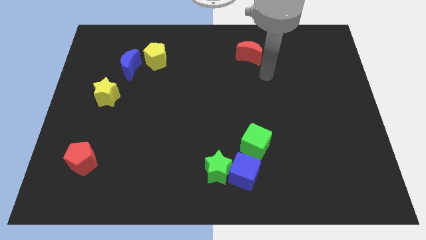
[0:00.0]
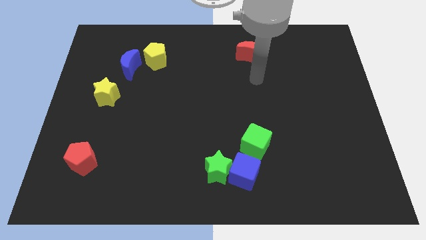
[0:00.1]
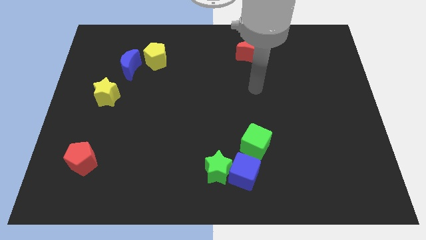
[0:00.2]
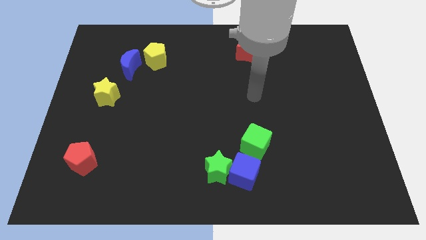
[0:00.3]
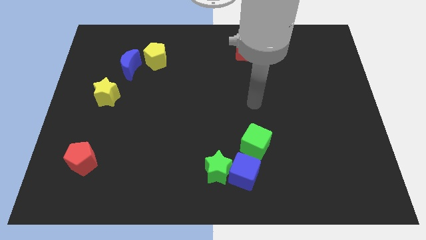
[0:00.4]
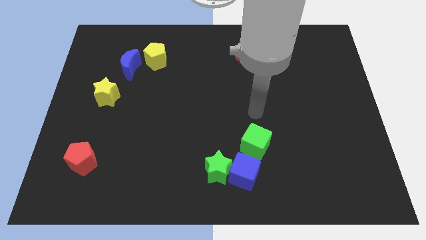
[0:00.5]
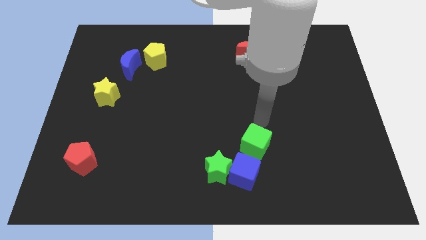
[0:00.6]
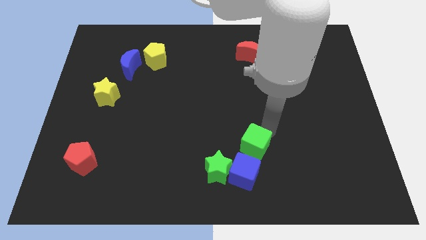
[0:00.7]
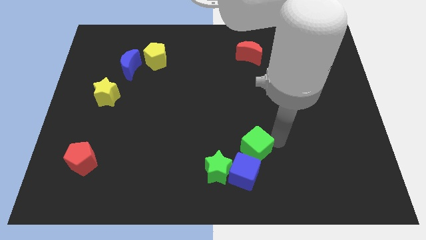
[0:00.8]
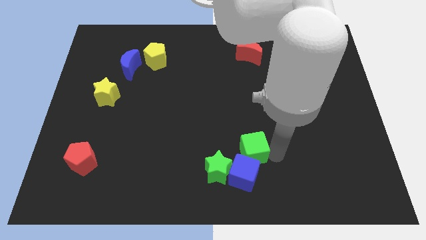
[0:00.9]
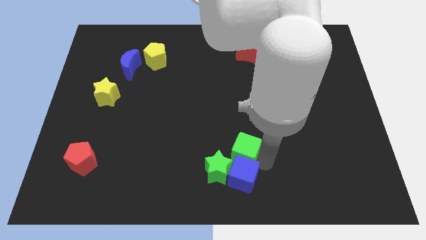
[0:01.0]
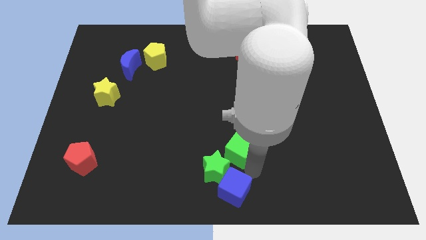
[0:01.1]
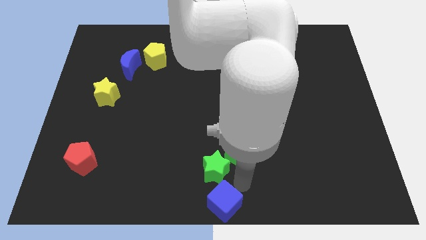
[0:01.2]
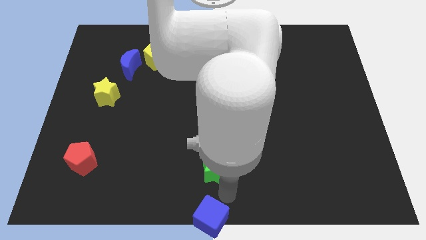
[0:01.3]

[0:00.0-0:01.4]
move the green star away from the blue cube

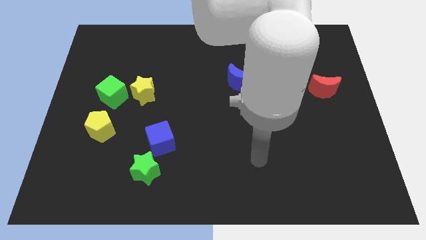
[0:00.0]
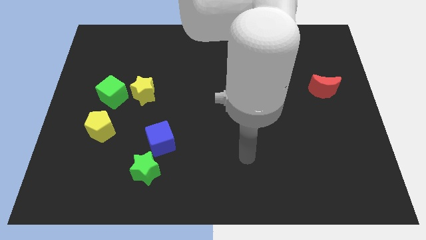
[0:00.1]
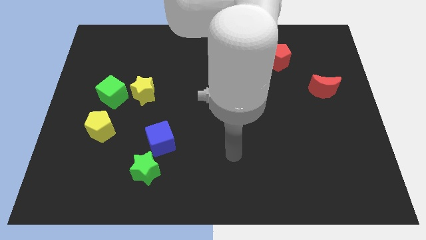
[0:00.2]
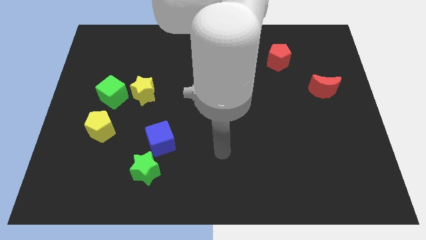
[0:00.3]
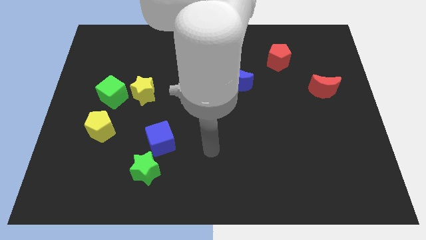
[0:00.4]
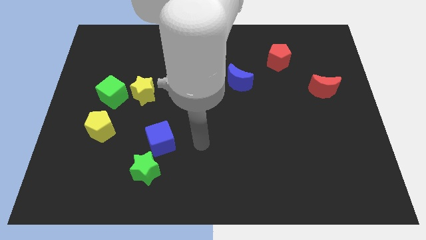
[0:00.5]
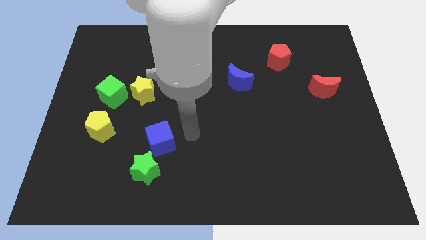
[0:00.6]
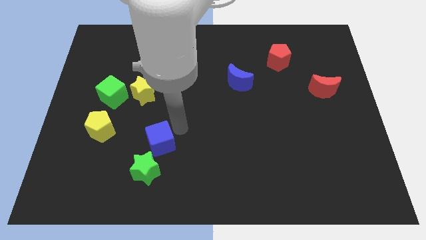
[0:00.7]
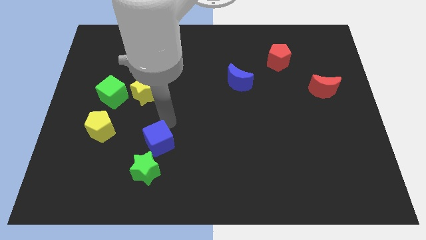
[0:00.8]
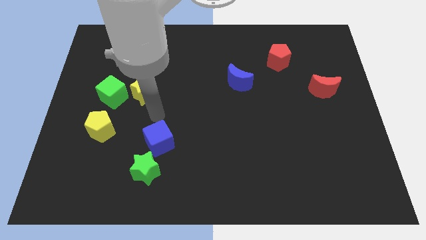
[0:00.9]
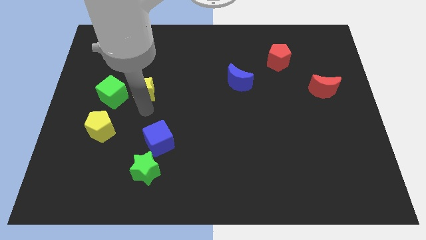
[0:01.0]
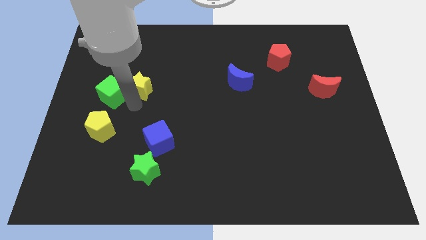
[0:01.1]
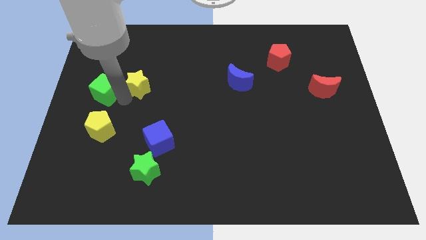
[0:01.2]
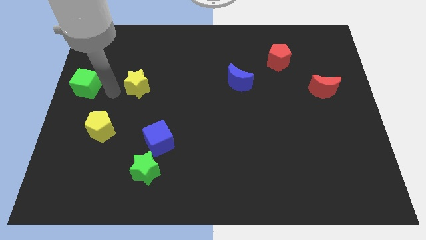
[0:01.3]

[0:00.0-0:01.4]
move the yellow star away from the green cube

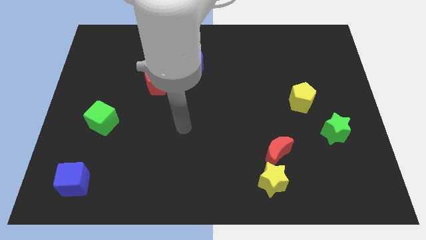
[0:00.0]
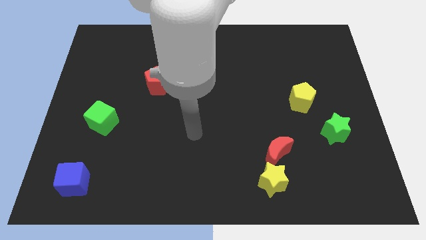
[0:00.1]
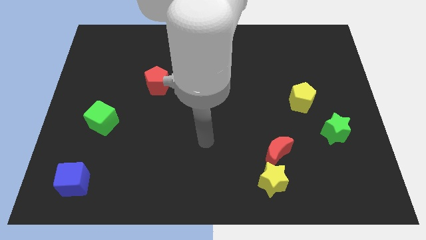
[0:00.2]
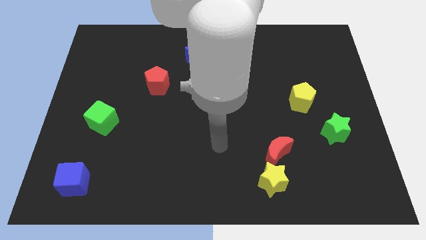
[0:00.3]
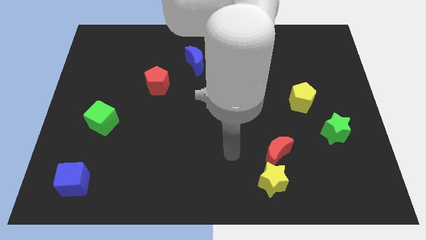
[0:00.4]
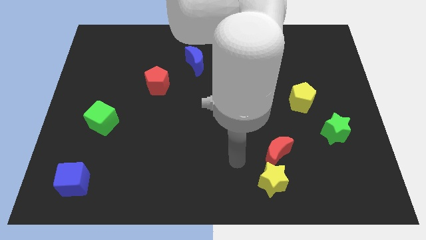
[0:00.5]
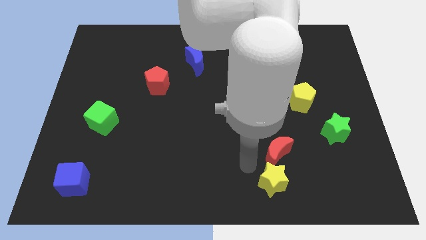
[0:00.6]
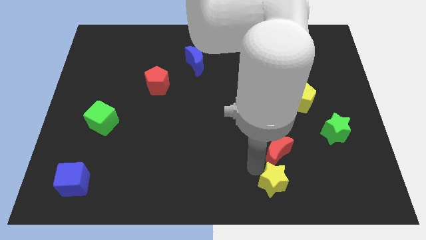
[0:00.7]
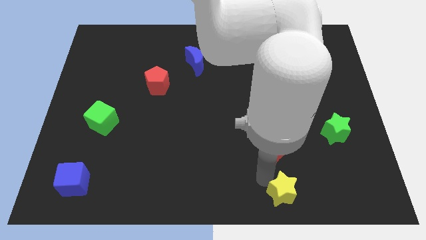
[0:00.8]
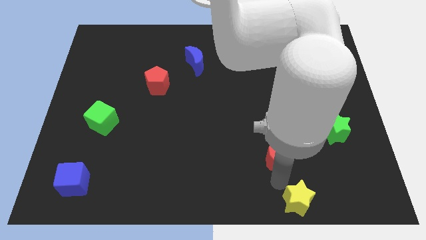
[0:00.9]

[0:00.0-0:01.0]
pull the red moon apart from the yellow star

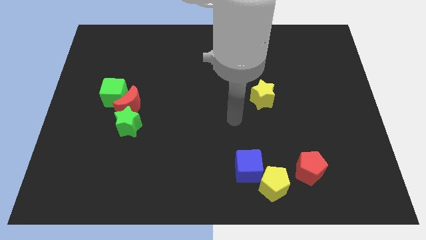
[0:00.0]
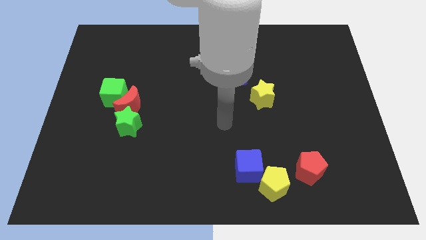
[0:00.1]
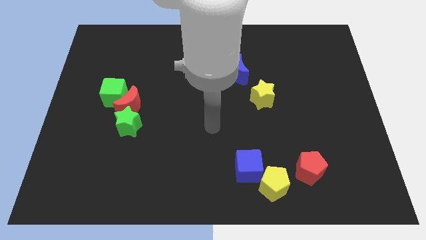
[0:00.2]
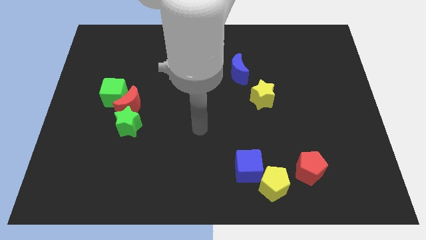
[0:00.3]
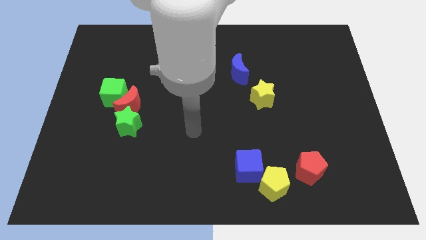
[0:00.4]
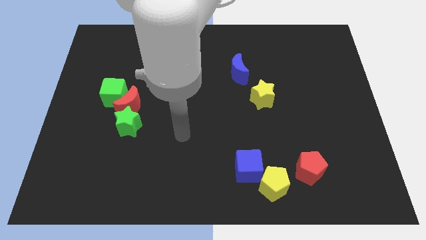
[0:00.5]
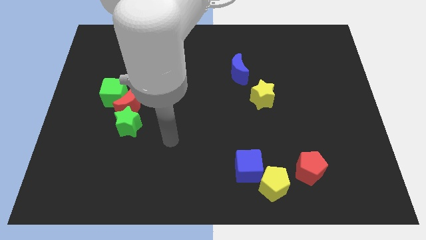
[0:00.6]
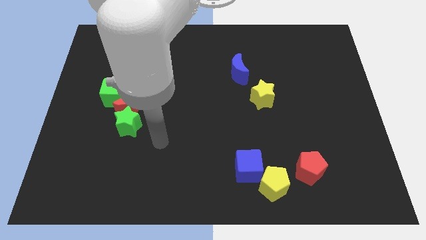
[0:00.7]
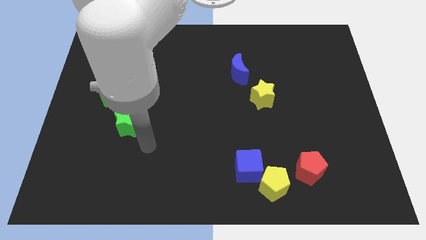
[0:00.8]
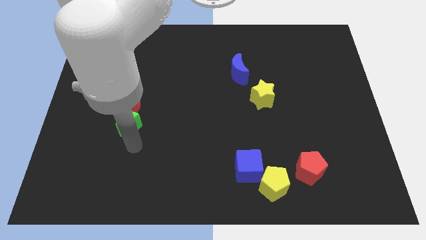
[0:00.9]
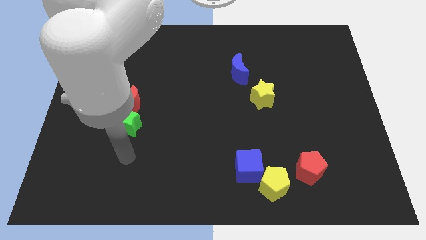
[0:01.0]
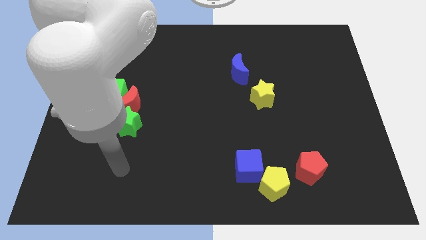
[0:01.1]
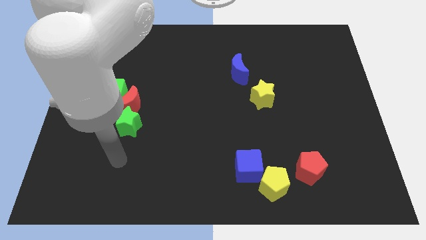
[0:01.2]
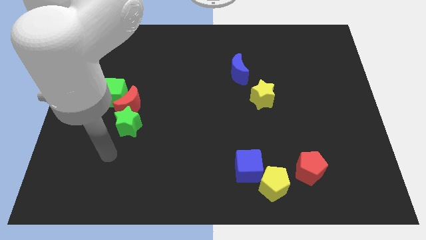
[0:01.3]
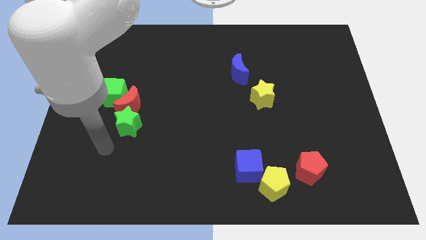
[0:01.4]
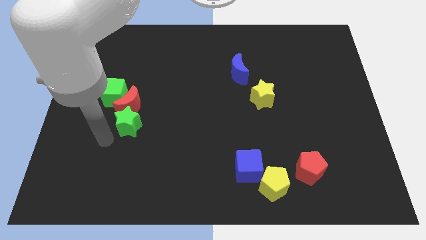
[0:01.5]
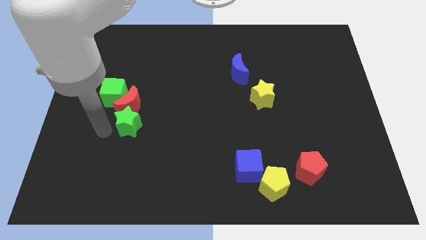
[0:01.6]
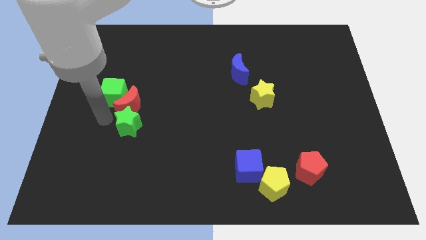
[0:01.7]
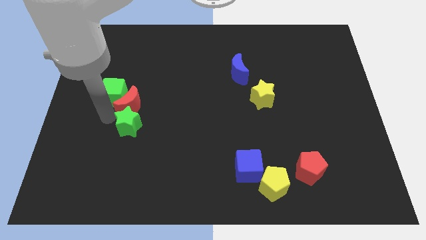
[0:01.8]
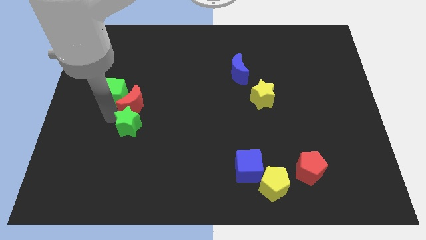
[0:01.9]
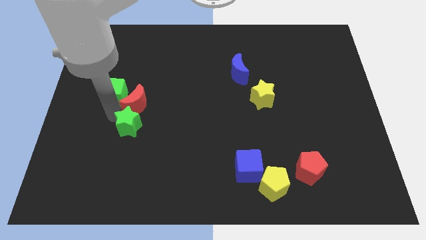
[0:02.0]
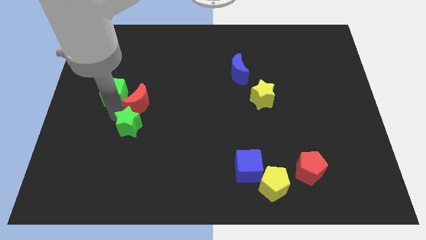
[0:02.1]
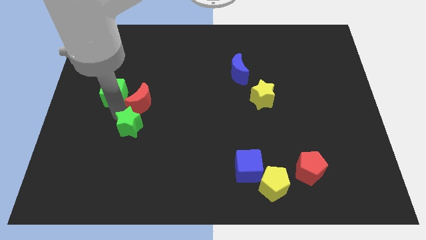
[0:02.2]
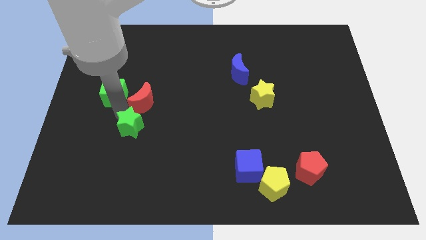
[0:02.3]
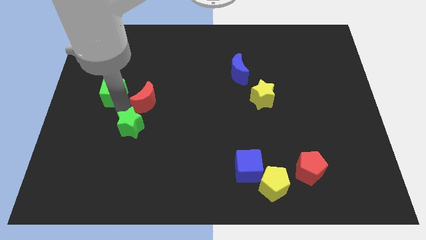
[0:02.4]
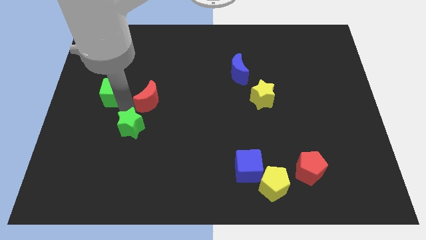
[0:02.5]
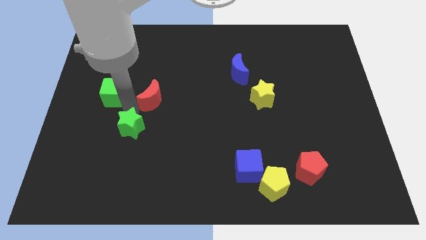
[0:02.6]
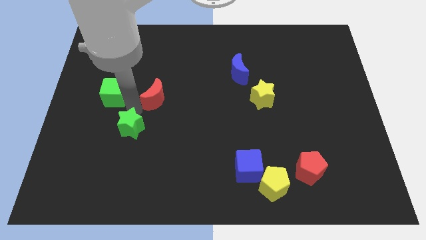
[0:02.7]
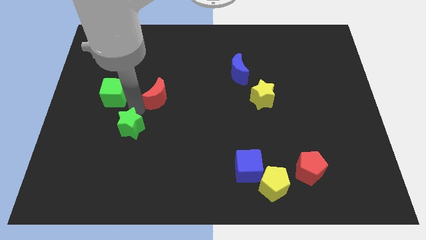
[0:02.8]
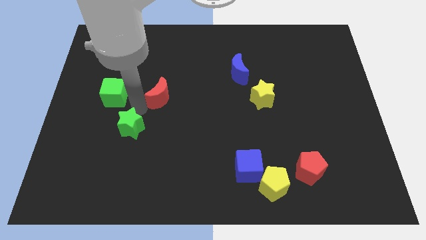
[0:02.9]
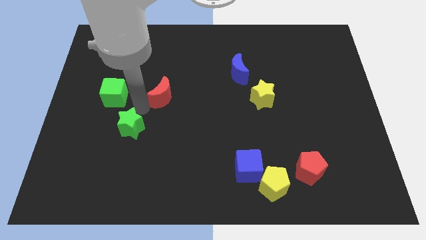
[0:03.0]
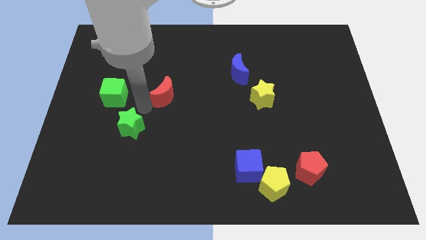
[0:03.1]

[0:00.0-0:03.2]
pull the red moon apart from the green cube and green star

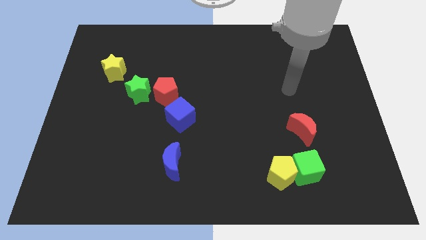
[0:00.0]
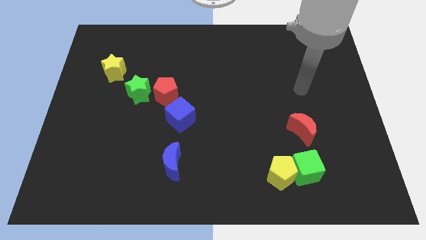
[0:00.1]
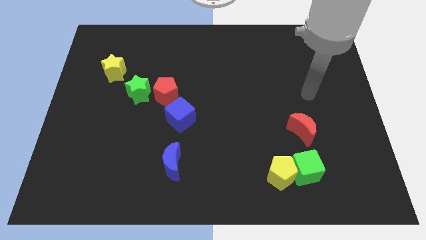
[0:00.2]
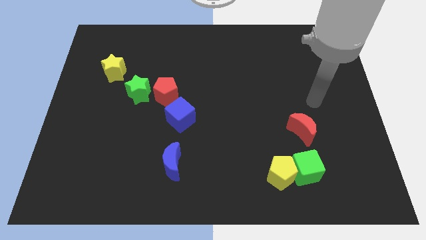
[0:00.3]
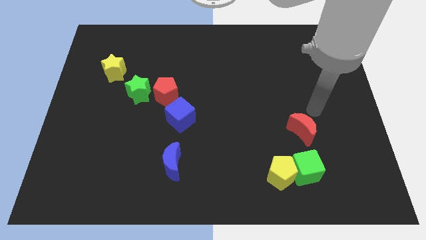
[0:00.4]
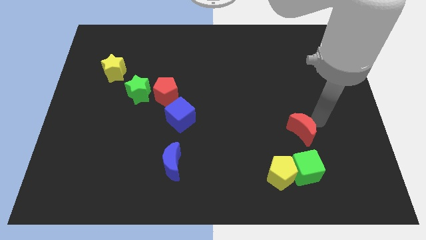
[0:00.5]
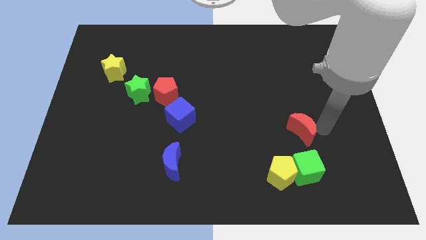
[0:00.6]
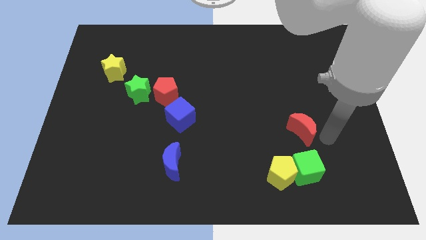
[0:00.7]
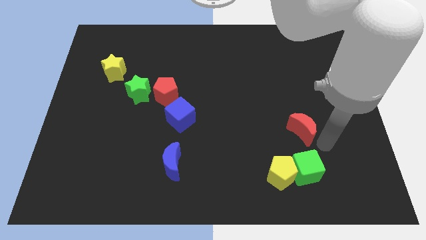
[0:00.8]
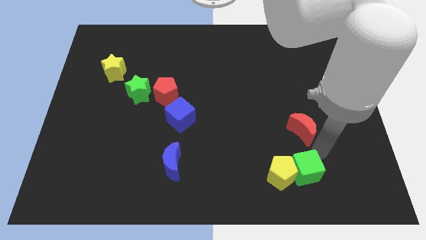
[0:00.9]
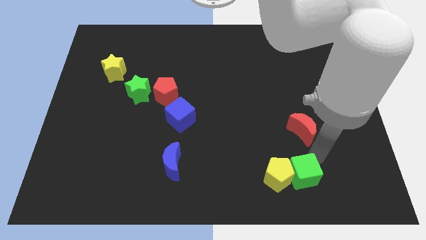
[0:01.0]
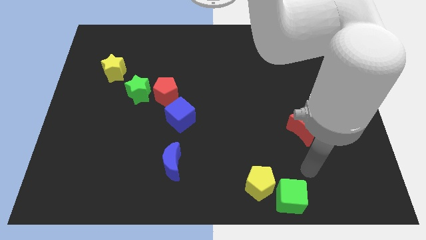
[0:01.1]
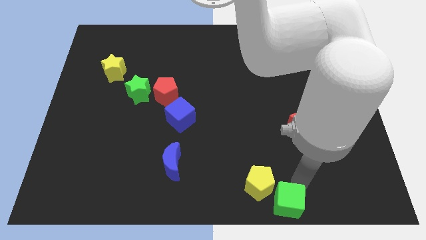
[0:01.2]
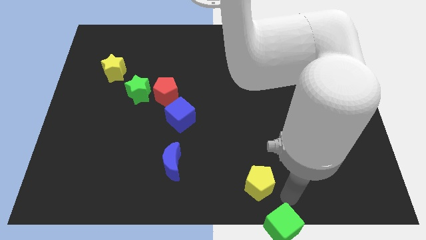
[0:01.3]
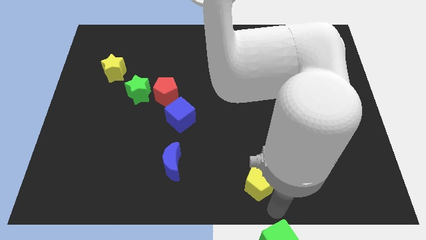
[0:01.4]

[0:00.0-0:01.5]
pull the yellow pentagon apart from the green cube

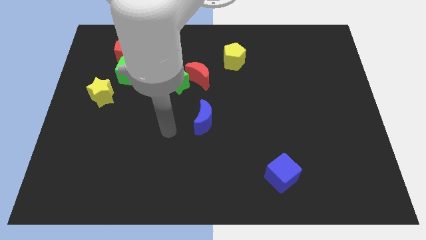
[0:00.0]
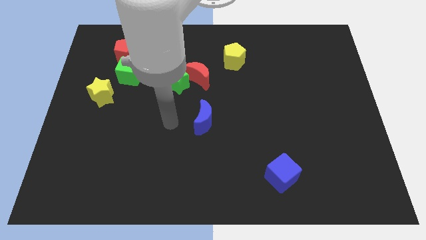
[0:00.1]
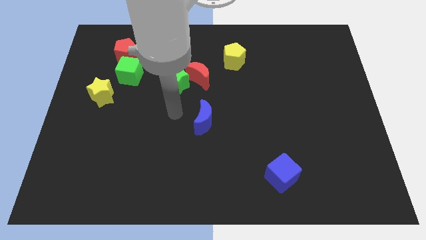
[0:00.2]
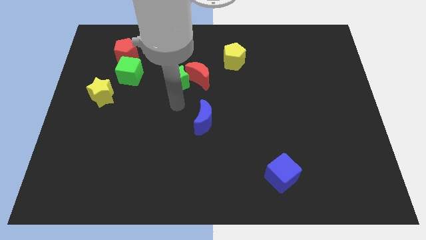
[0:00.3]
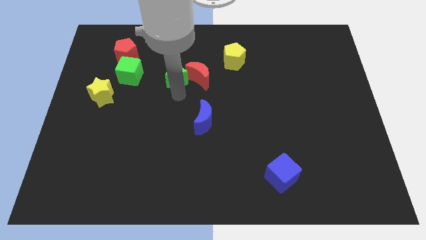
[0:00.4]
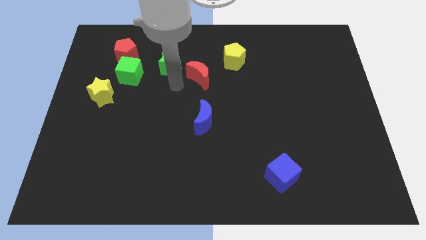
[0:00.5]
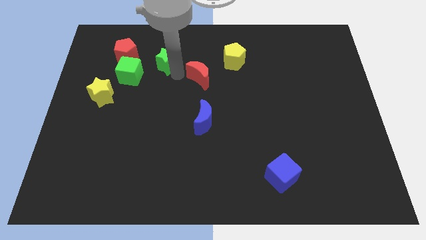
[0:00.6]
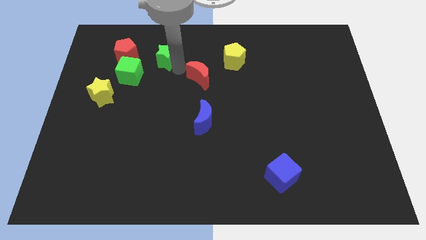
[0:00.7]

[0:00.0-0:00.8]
pull the red moon apart from the green star
